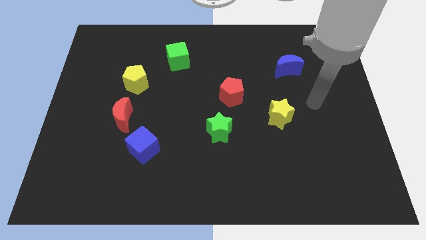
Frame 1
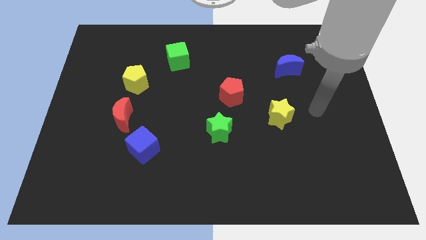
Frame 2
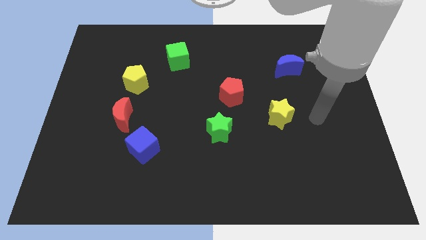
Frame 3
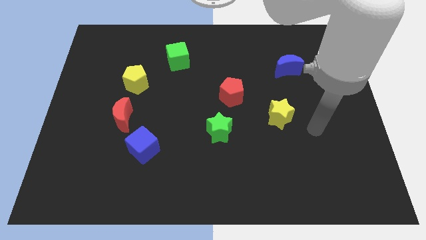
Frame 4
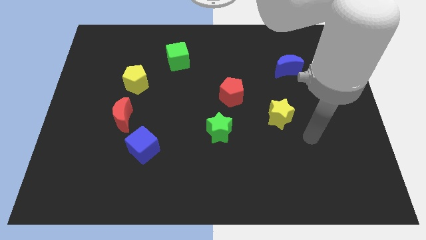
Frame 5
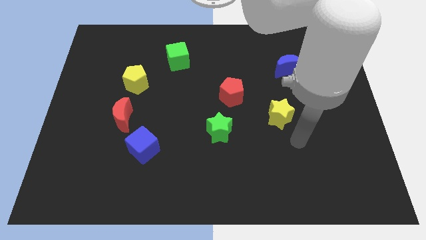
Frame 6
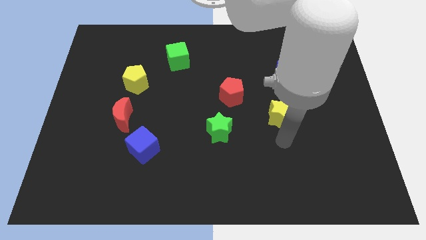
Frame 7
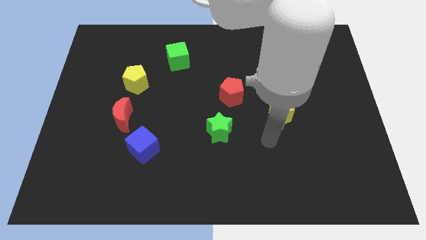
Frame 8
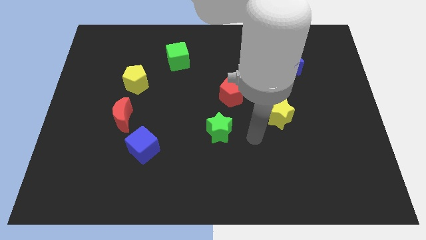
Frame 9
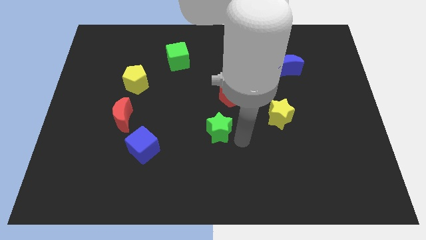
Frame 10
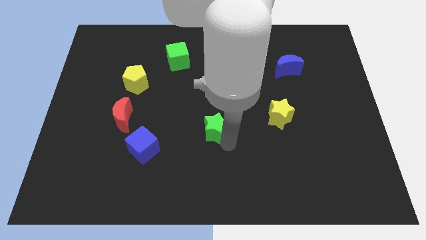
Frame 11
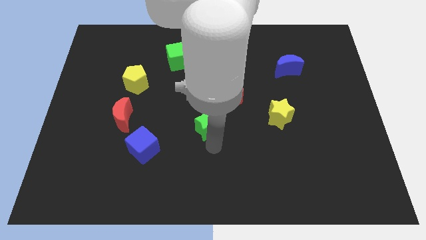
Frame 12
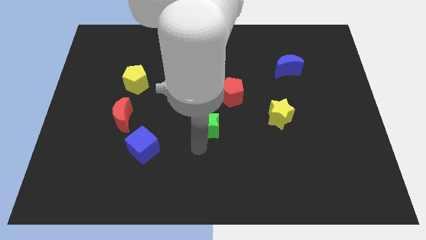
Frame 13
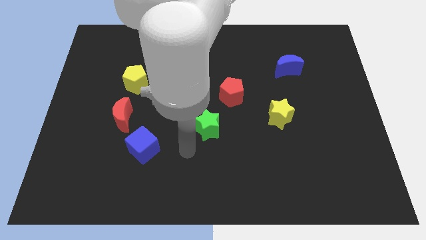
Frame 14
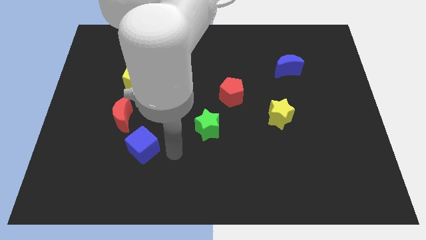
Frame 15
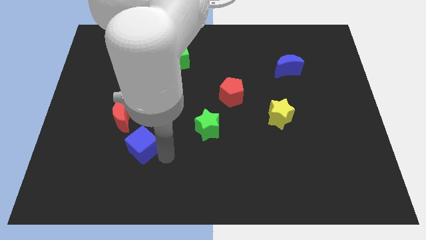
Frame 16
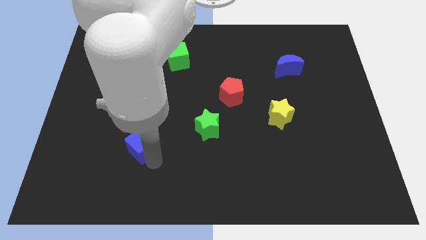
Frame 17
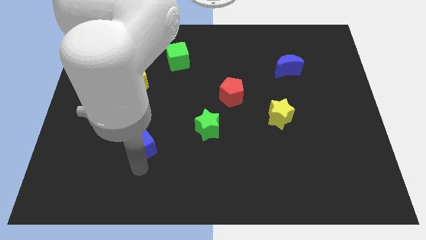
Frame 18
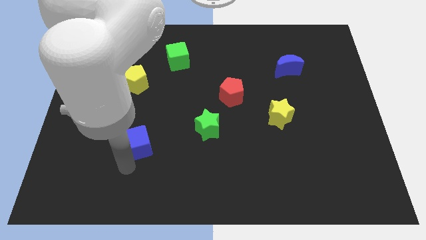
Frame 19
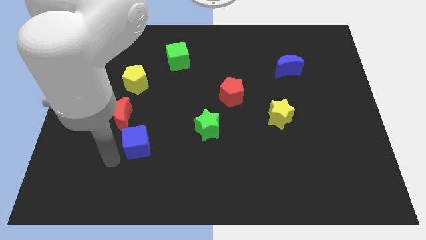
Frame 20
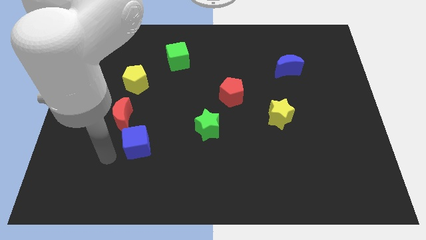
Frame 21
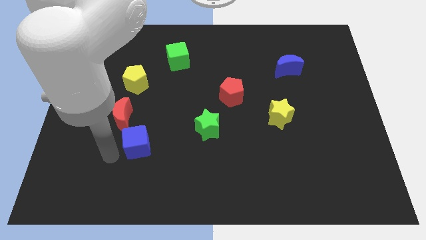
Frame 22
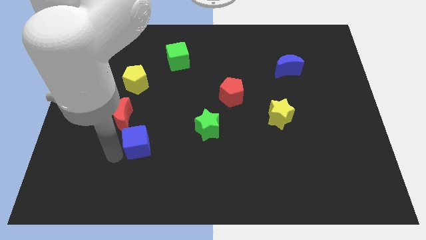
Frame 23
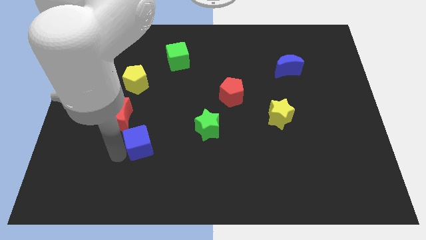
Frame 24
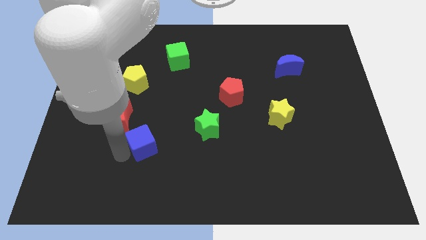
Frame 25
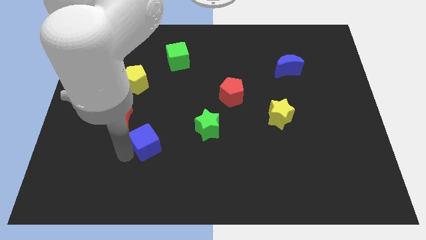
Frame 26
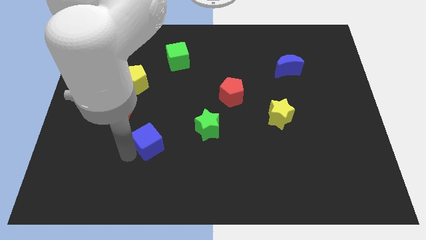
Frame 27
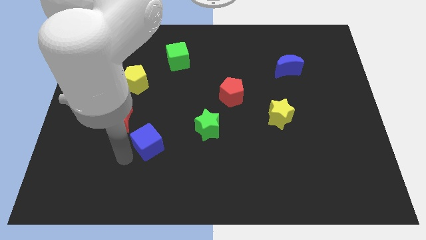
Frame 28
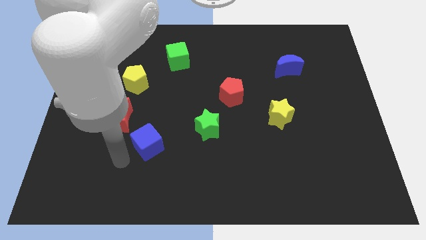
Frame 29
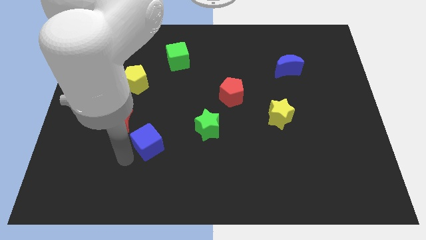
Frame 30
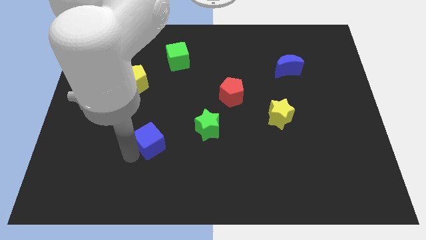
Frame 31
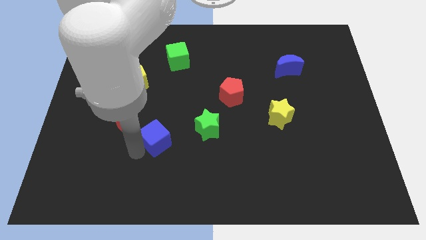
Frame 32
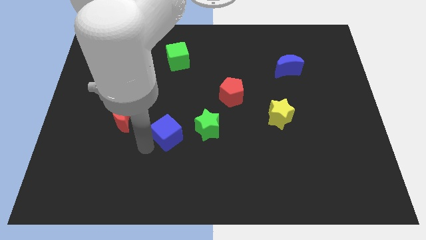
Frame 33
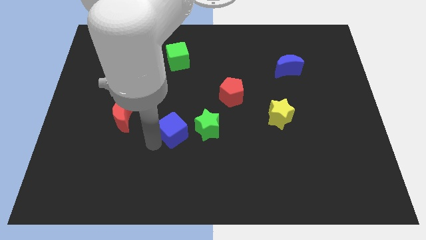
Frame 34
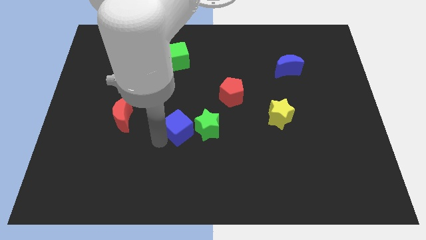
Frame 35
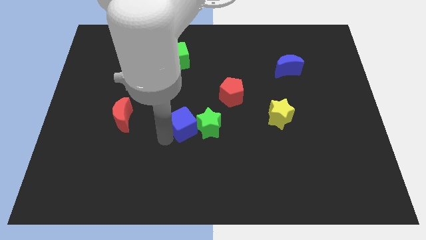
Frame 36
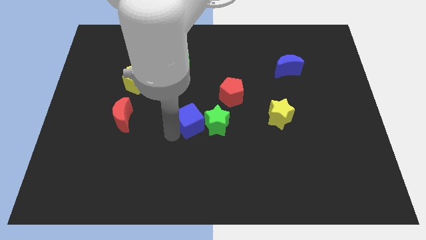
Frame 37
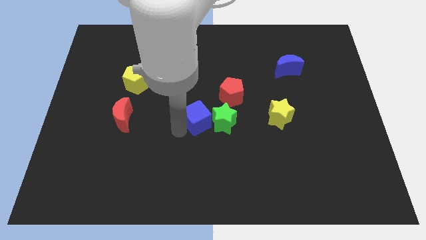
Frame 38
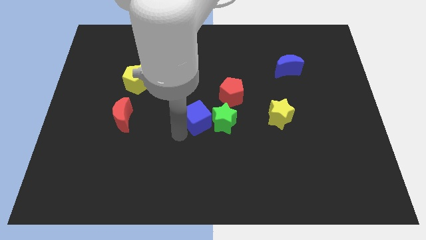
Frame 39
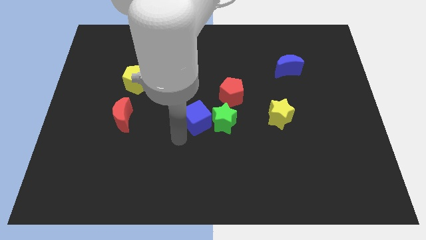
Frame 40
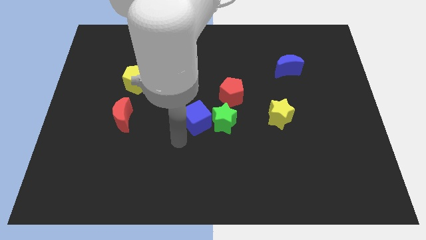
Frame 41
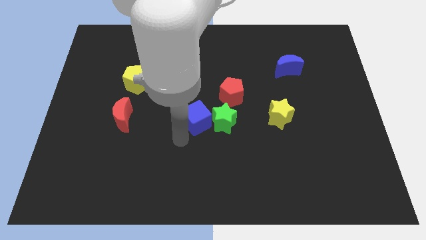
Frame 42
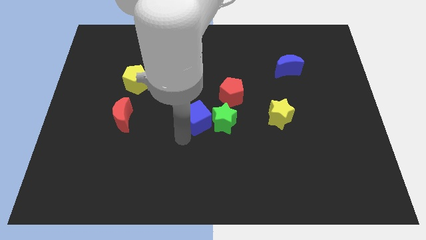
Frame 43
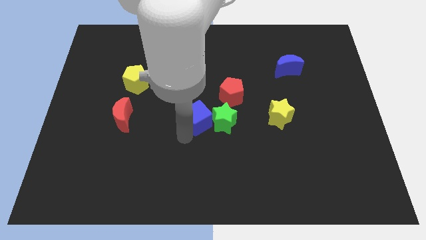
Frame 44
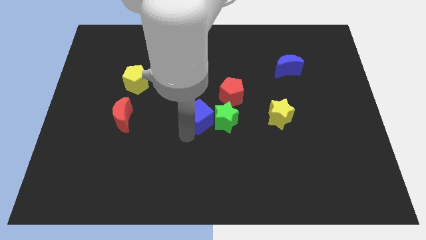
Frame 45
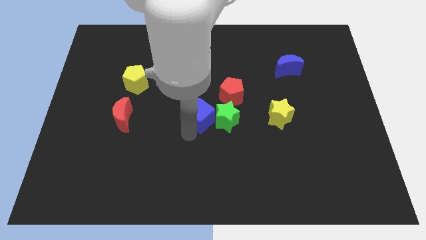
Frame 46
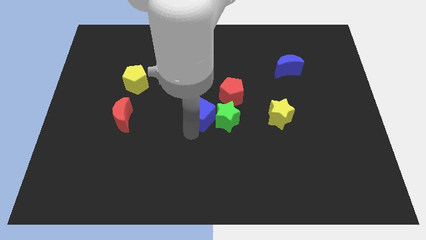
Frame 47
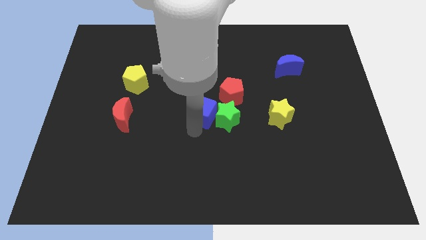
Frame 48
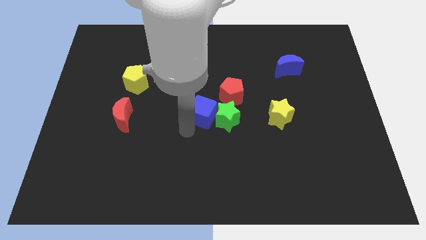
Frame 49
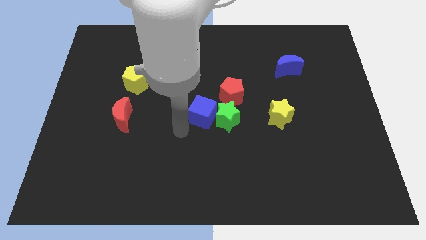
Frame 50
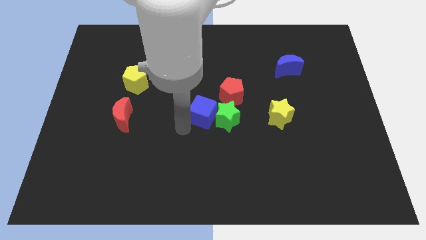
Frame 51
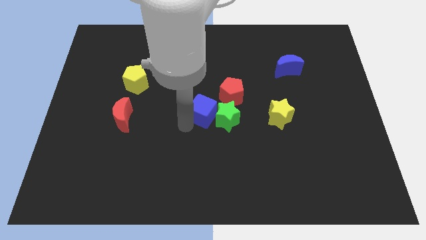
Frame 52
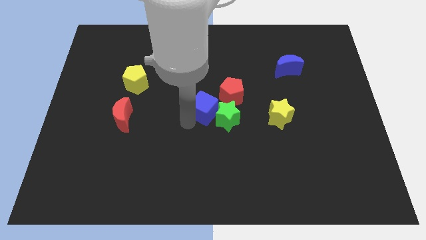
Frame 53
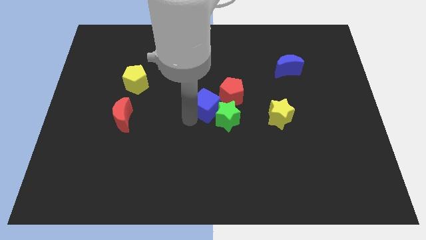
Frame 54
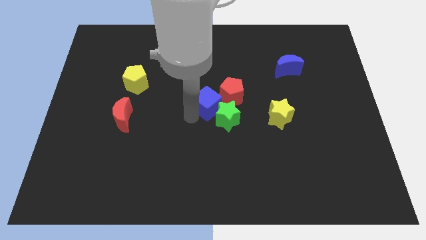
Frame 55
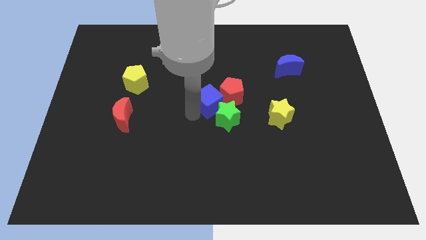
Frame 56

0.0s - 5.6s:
move the blue cube close to the red pentagon
